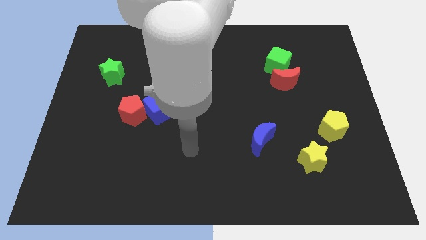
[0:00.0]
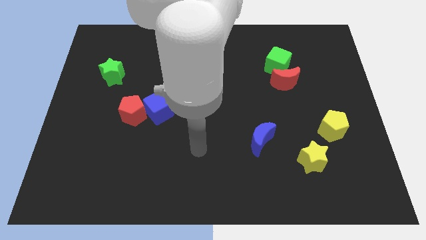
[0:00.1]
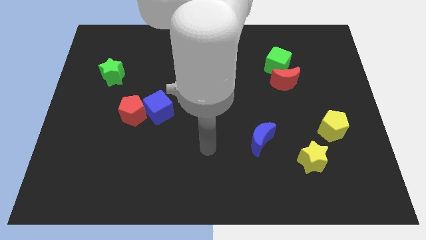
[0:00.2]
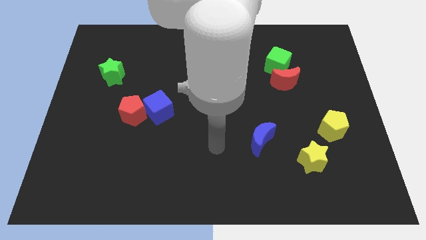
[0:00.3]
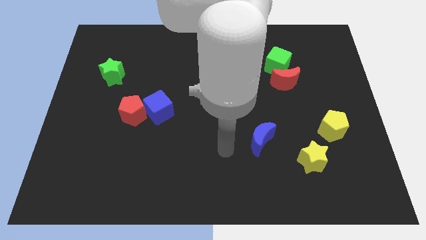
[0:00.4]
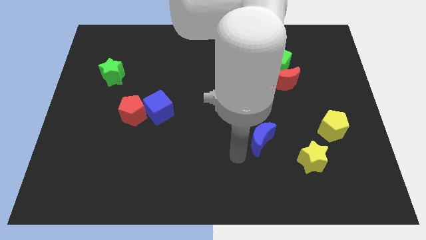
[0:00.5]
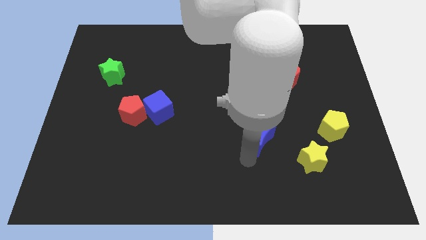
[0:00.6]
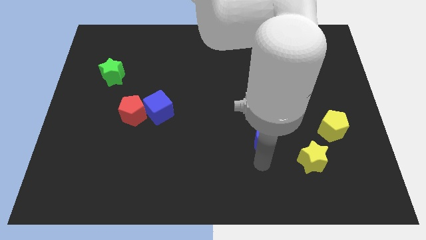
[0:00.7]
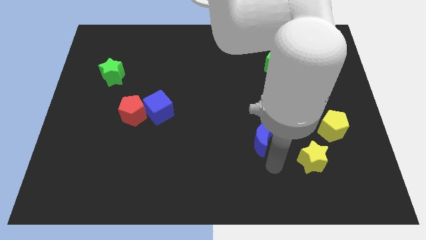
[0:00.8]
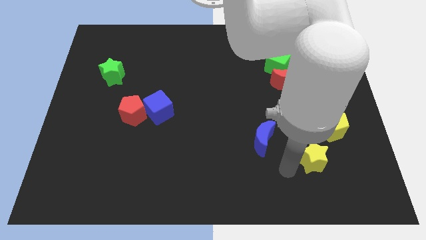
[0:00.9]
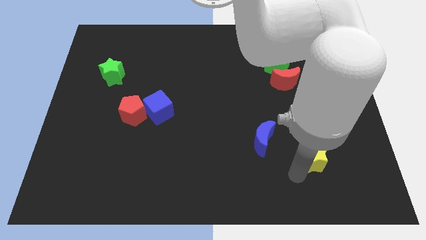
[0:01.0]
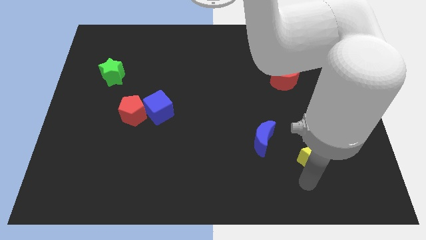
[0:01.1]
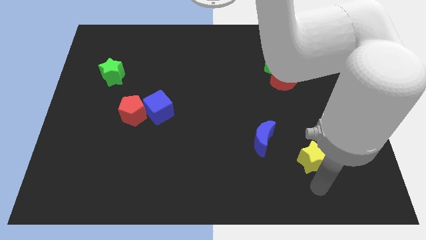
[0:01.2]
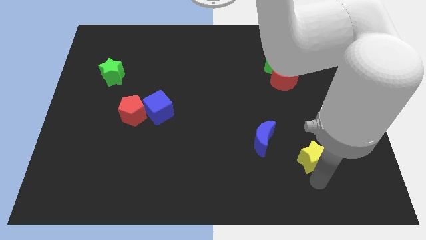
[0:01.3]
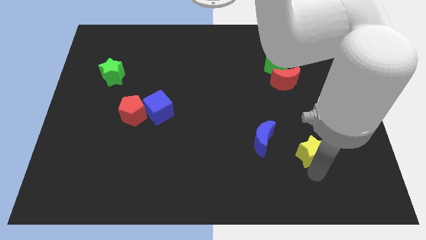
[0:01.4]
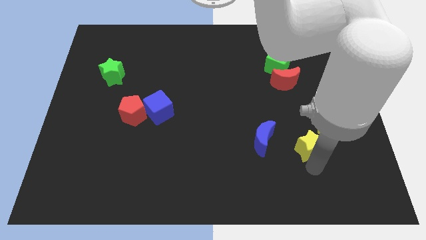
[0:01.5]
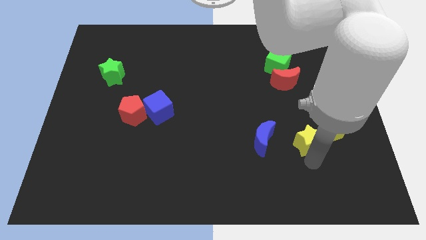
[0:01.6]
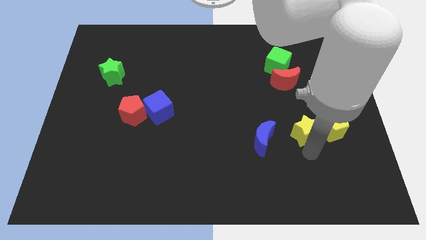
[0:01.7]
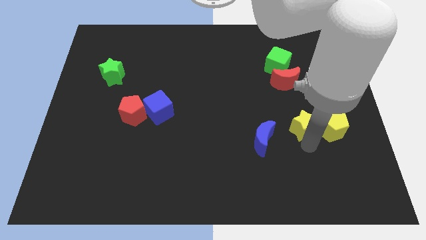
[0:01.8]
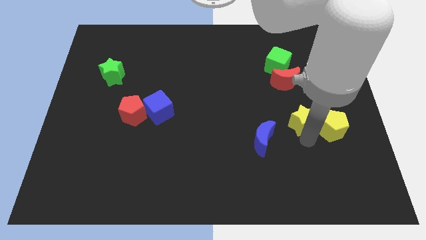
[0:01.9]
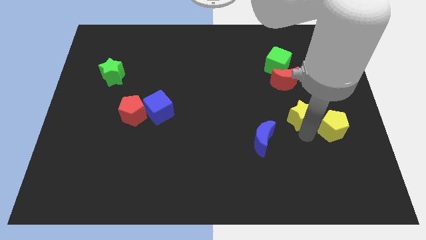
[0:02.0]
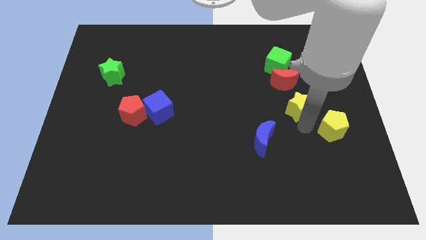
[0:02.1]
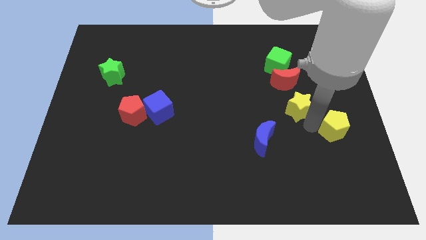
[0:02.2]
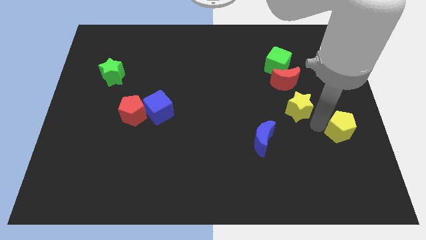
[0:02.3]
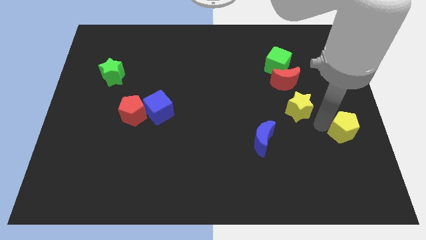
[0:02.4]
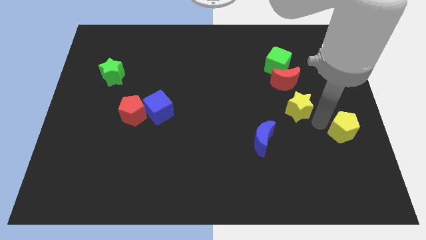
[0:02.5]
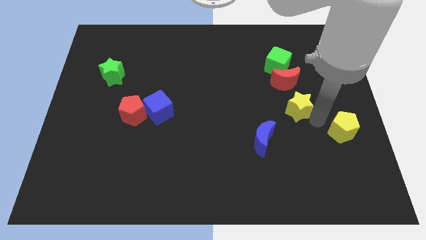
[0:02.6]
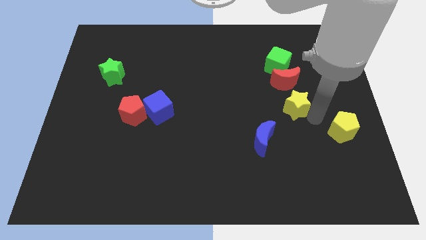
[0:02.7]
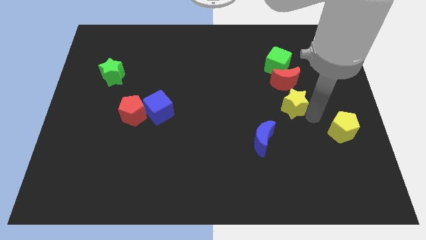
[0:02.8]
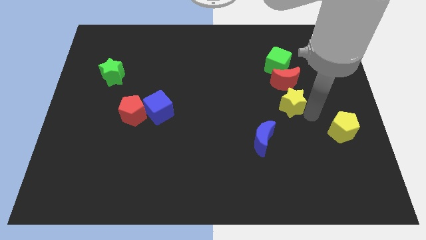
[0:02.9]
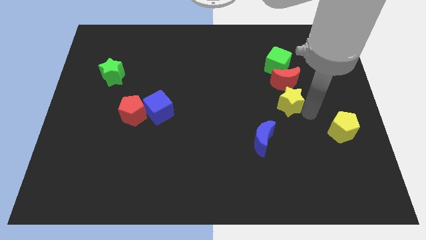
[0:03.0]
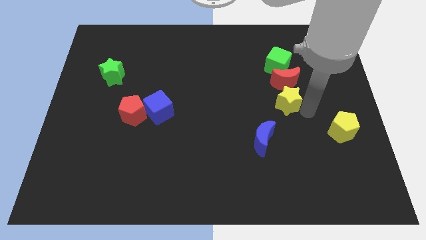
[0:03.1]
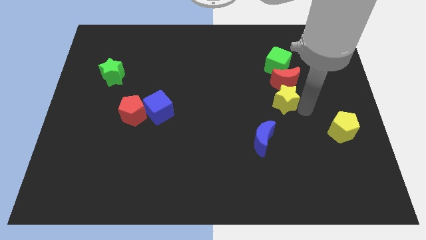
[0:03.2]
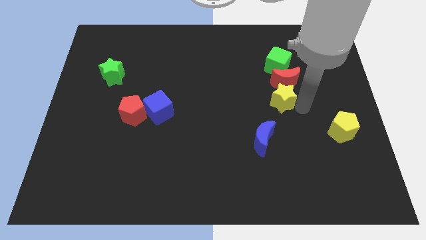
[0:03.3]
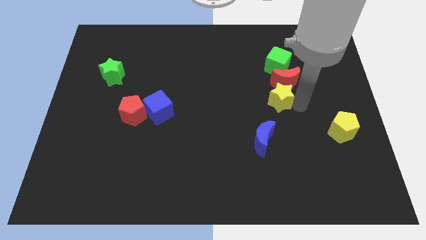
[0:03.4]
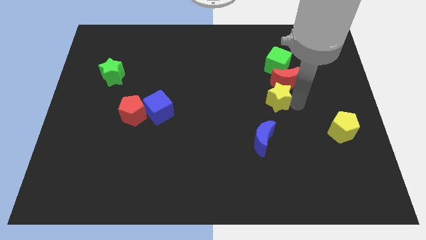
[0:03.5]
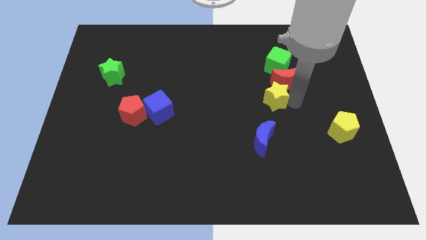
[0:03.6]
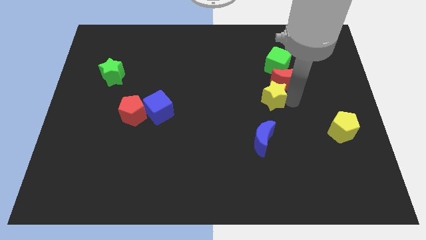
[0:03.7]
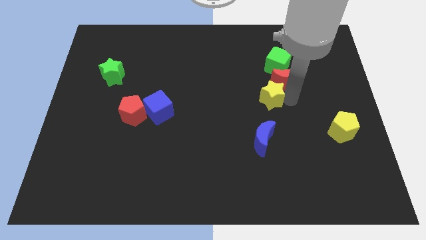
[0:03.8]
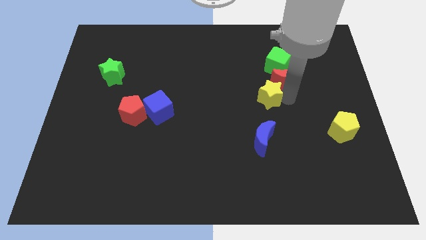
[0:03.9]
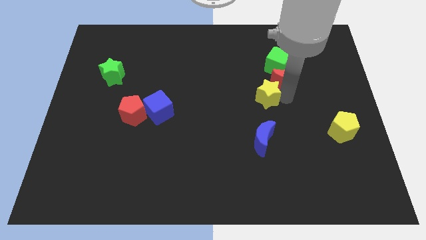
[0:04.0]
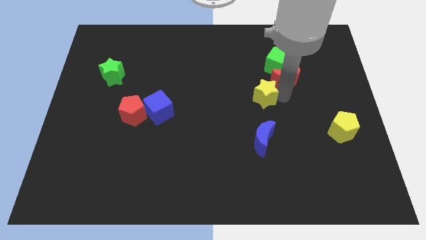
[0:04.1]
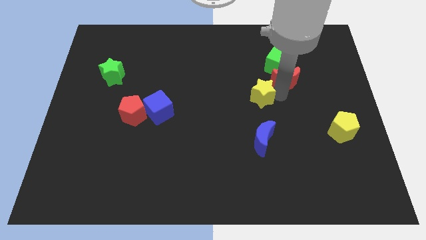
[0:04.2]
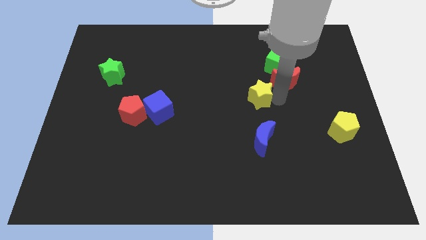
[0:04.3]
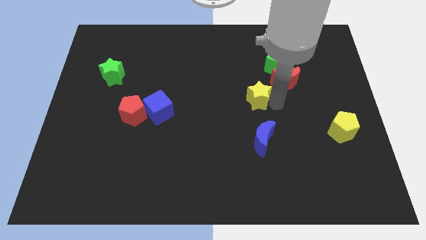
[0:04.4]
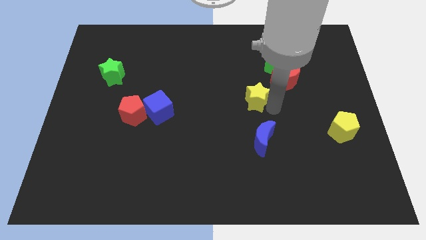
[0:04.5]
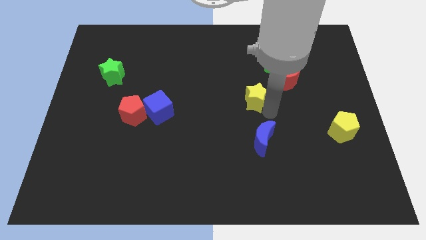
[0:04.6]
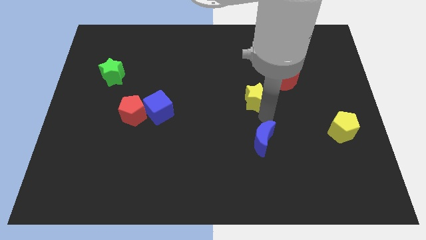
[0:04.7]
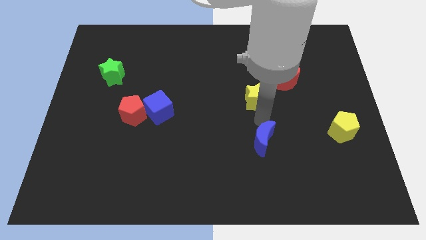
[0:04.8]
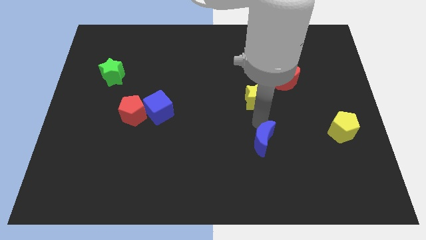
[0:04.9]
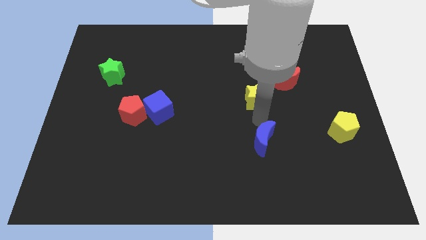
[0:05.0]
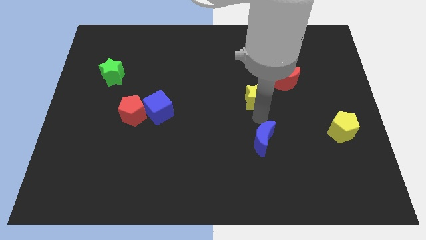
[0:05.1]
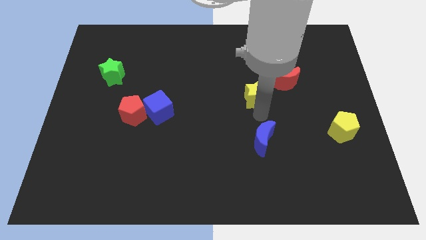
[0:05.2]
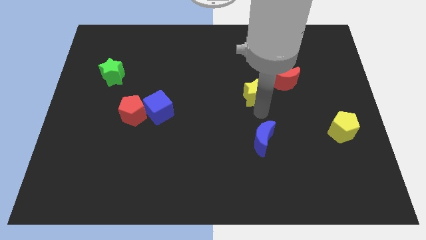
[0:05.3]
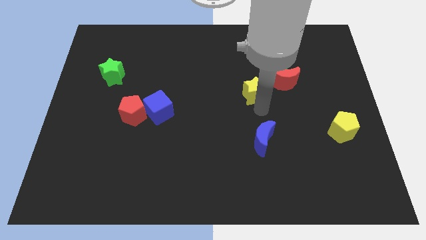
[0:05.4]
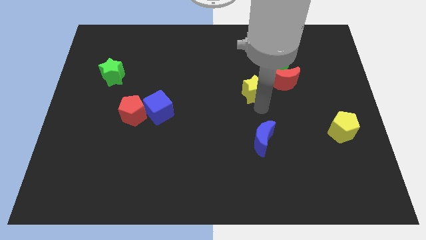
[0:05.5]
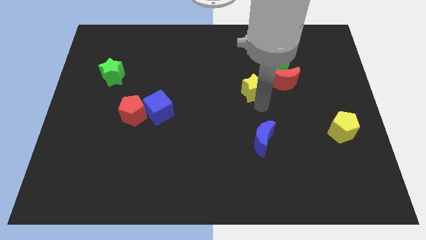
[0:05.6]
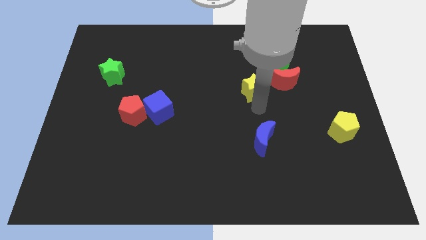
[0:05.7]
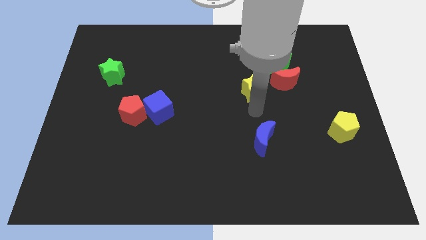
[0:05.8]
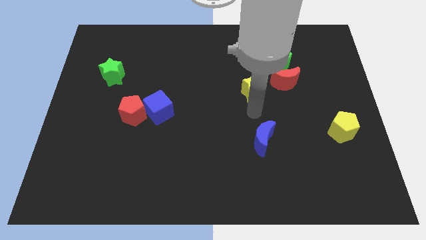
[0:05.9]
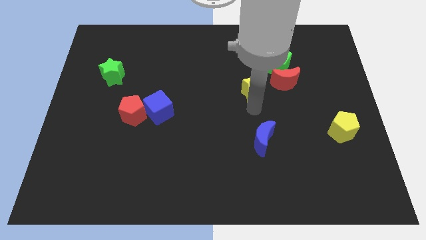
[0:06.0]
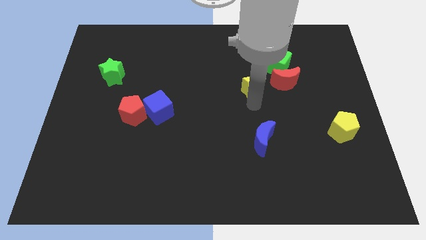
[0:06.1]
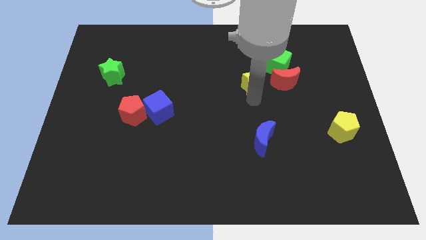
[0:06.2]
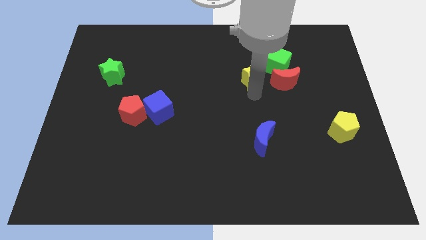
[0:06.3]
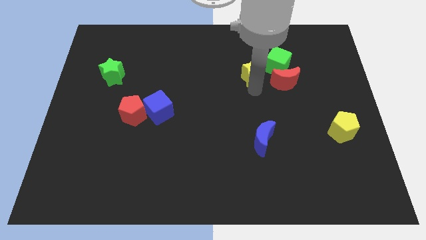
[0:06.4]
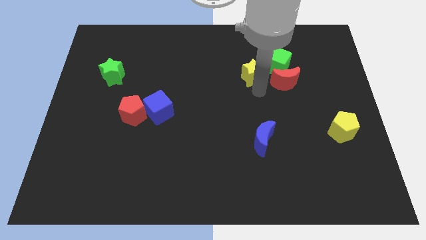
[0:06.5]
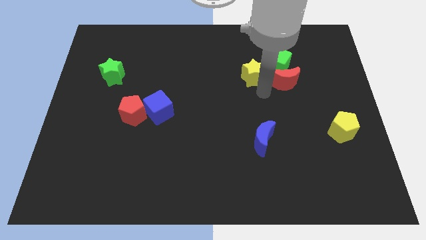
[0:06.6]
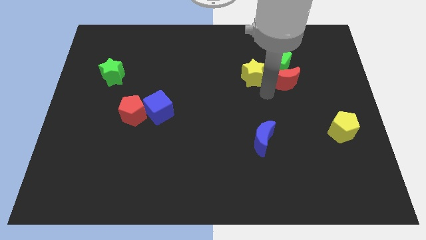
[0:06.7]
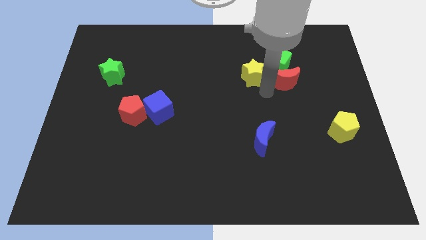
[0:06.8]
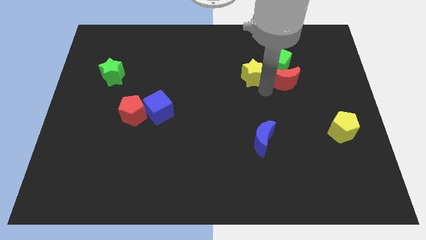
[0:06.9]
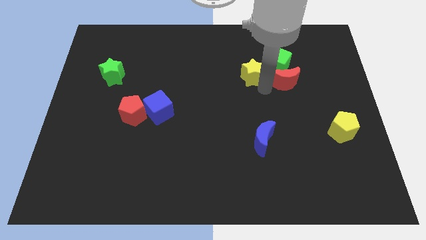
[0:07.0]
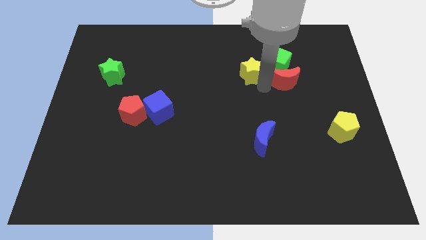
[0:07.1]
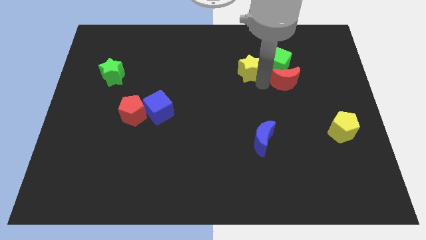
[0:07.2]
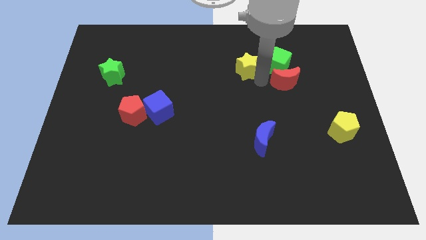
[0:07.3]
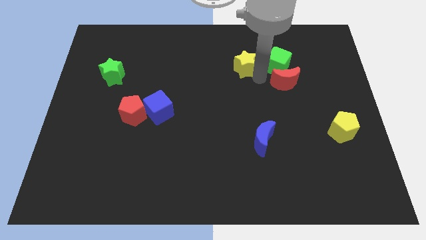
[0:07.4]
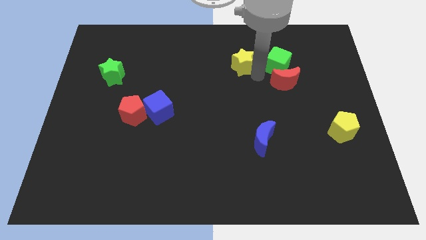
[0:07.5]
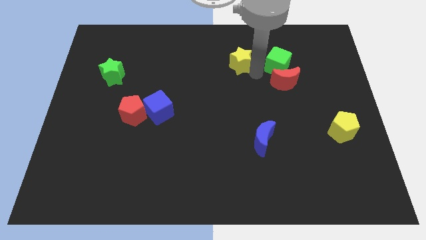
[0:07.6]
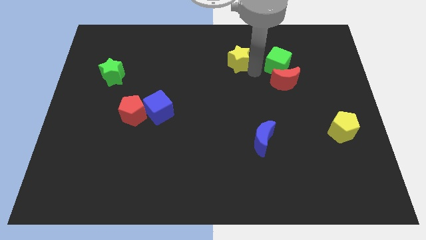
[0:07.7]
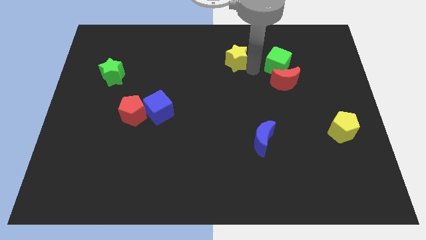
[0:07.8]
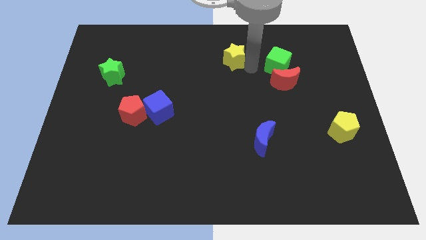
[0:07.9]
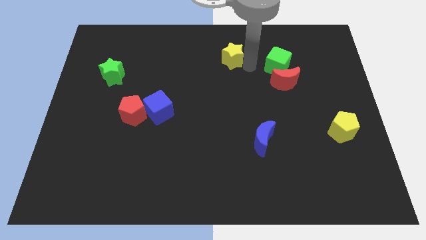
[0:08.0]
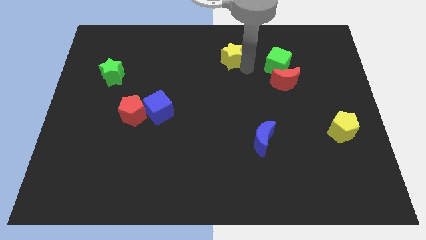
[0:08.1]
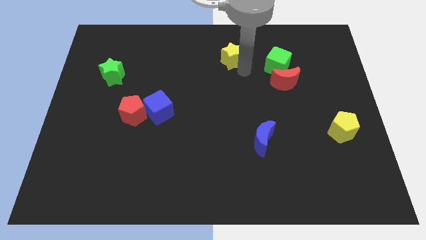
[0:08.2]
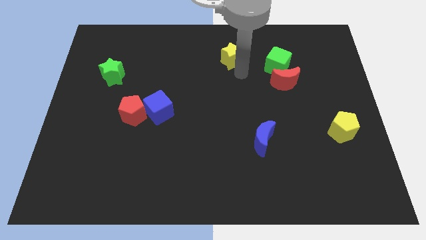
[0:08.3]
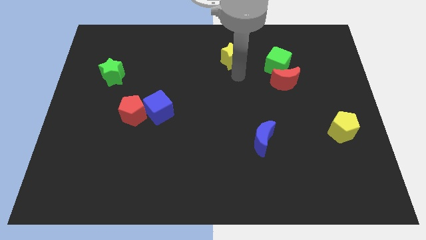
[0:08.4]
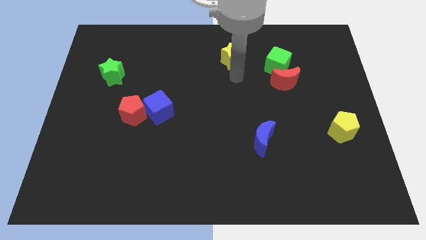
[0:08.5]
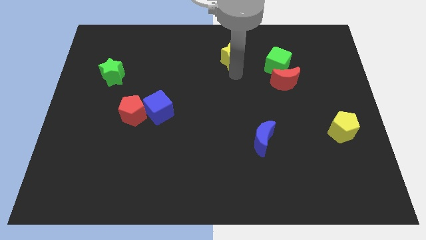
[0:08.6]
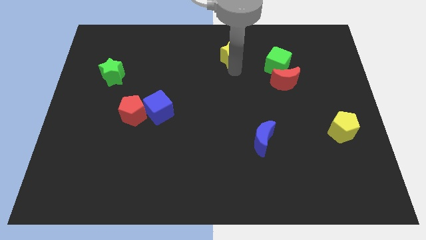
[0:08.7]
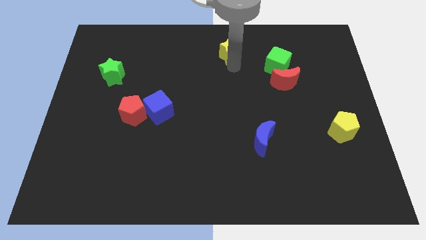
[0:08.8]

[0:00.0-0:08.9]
push the yellow star to the top side
